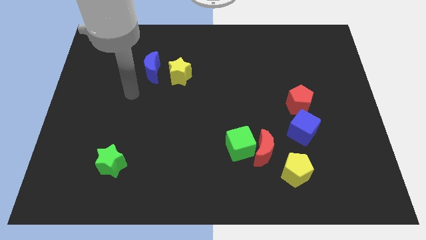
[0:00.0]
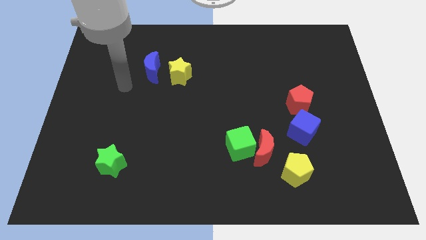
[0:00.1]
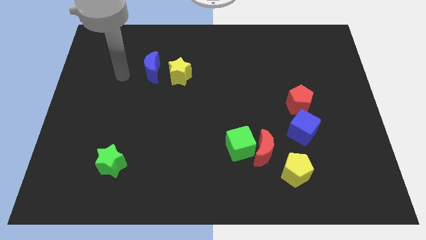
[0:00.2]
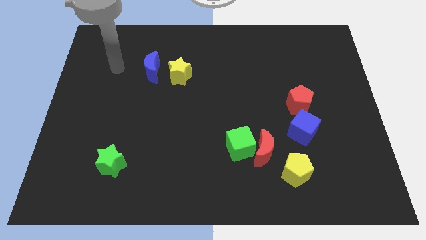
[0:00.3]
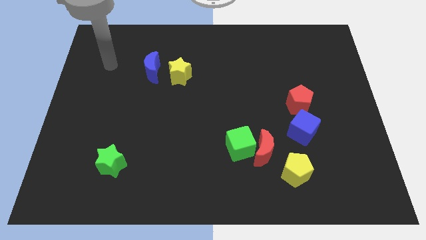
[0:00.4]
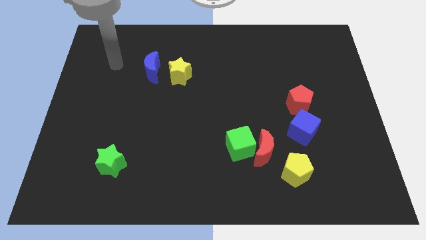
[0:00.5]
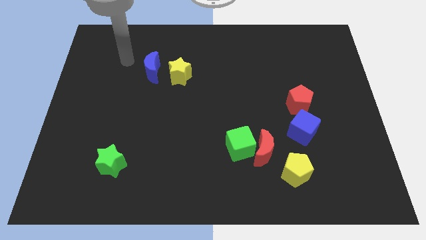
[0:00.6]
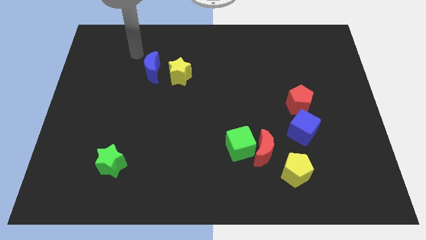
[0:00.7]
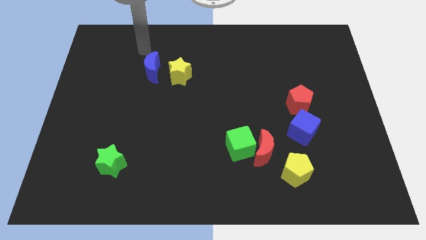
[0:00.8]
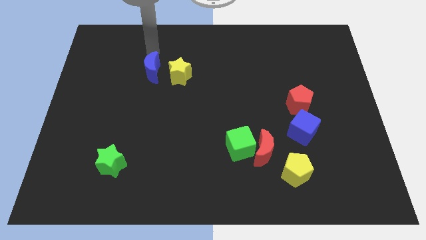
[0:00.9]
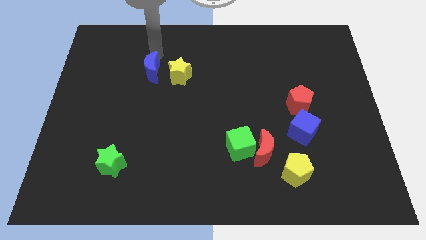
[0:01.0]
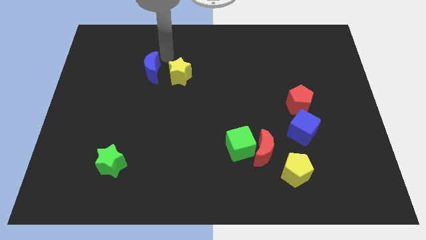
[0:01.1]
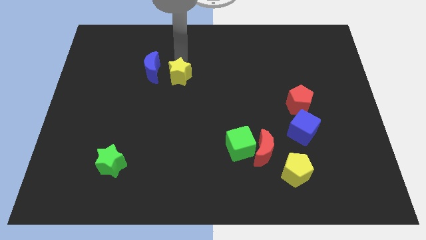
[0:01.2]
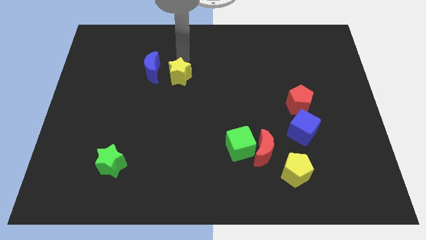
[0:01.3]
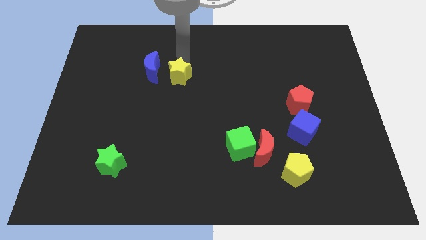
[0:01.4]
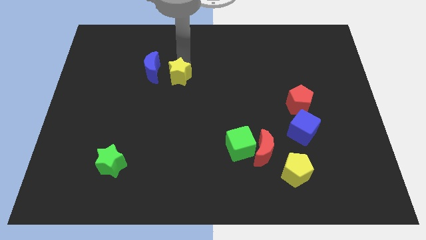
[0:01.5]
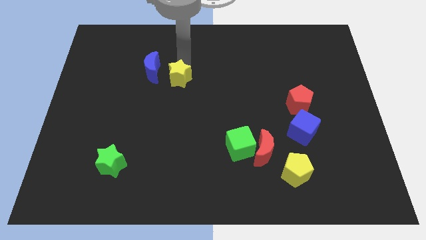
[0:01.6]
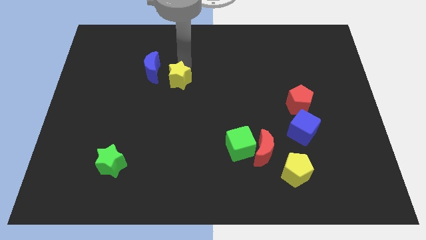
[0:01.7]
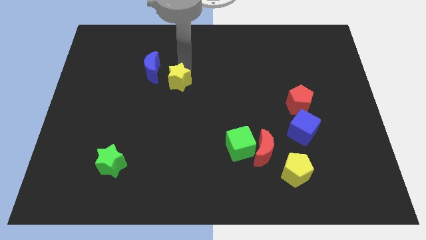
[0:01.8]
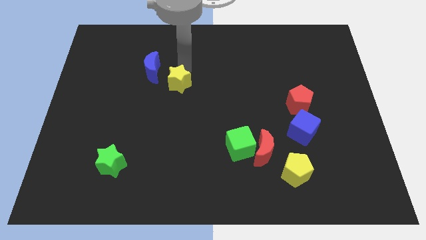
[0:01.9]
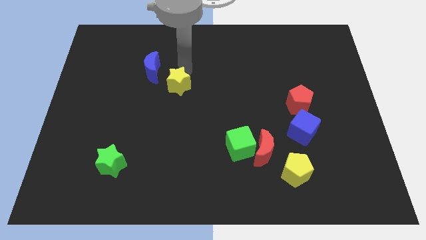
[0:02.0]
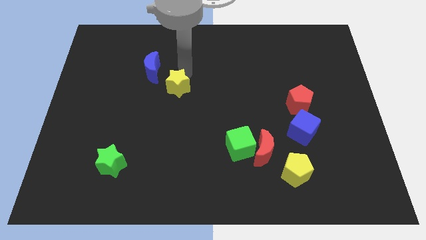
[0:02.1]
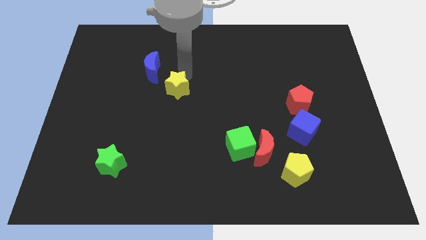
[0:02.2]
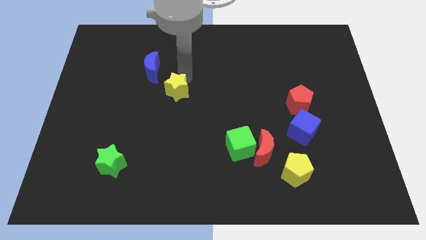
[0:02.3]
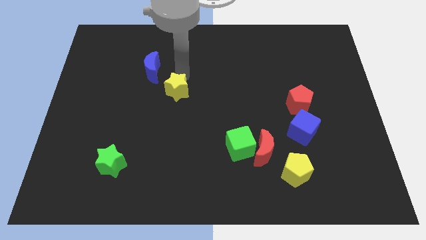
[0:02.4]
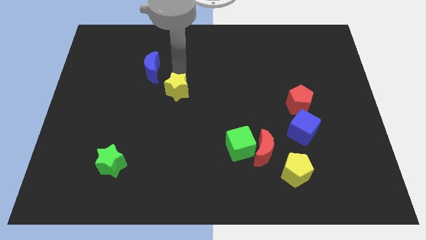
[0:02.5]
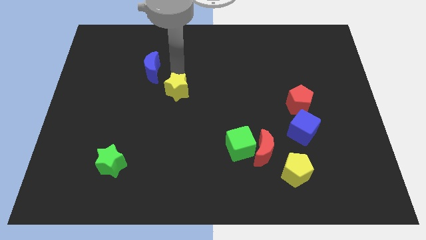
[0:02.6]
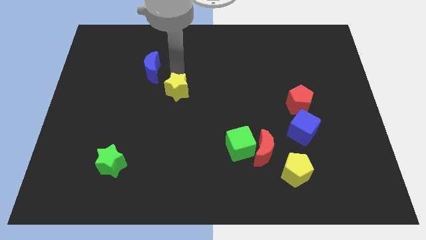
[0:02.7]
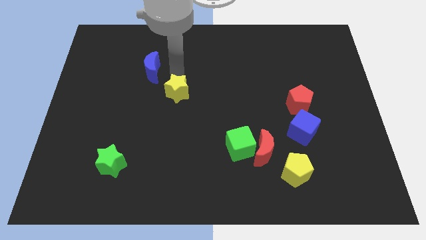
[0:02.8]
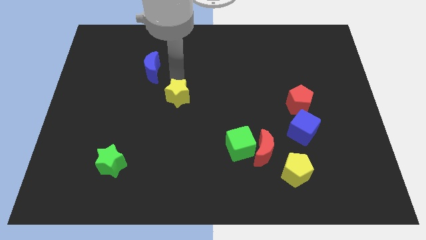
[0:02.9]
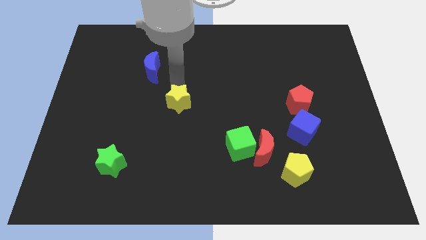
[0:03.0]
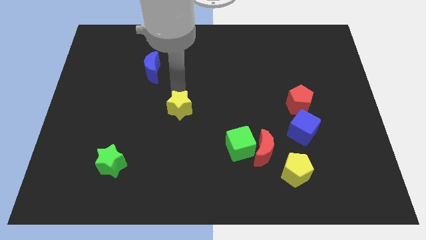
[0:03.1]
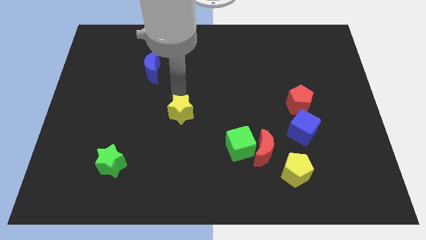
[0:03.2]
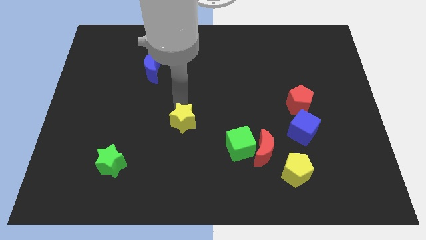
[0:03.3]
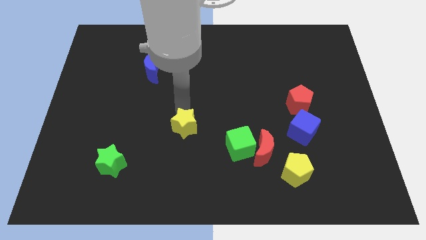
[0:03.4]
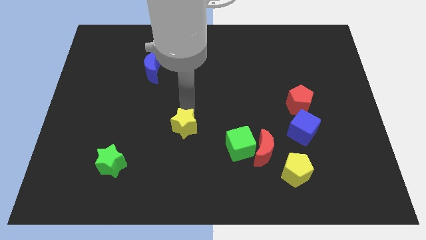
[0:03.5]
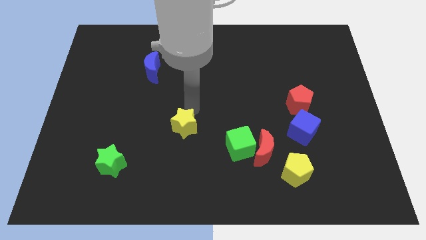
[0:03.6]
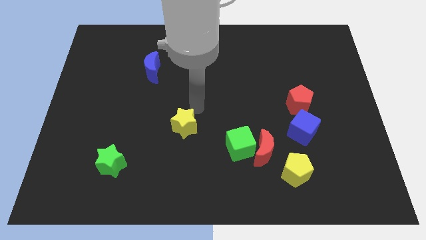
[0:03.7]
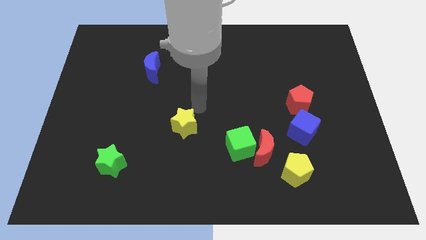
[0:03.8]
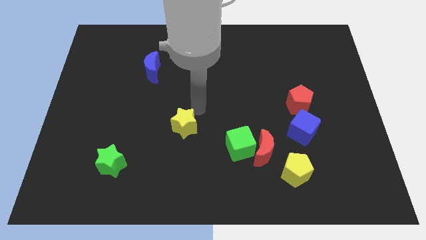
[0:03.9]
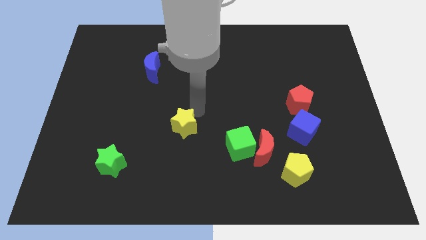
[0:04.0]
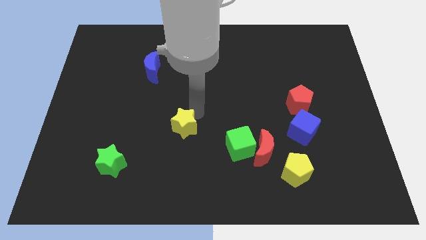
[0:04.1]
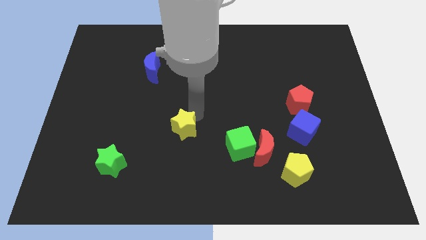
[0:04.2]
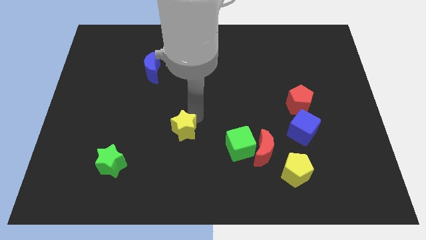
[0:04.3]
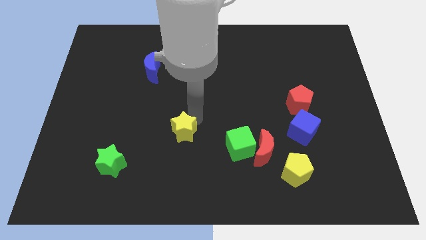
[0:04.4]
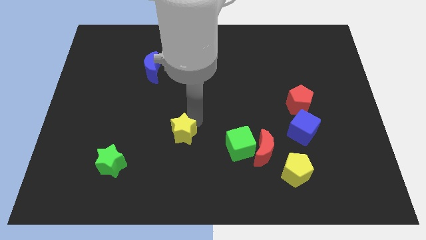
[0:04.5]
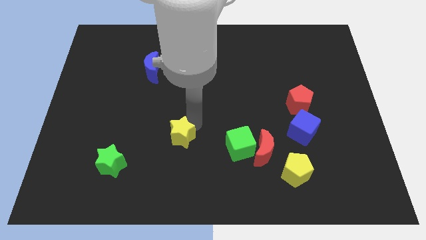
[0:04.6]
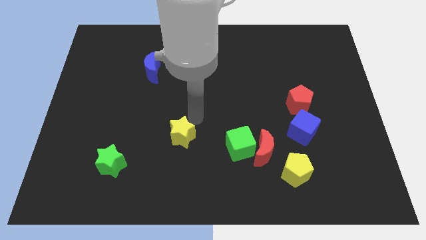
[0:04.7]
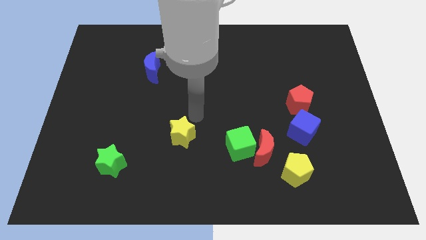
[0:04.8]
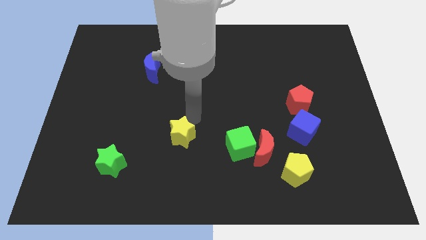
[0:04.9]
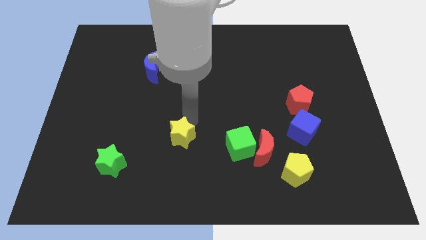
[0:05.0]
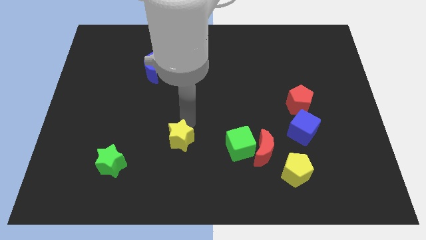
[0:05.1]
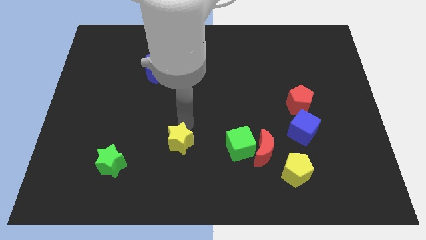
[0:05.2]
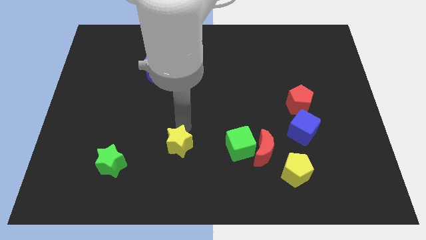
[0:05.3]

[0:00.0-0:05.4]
put the yellow star just right of the green star

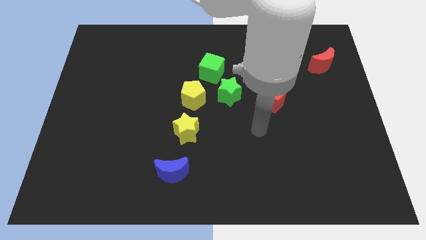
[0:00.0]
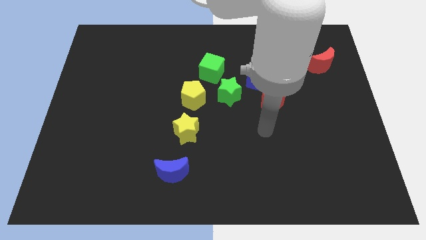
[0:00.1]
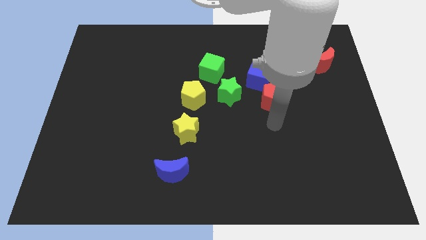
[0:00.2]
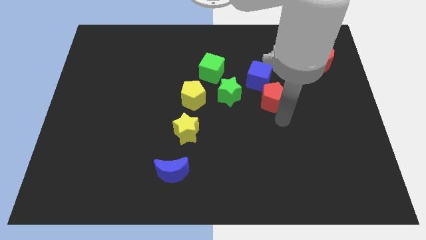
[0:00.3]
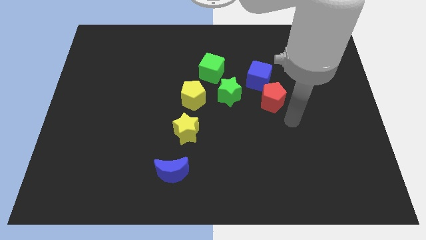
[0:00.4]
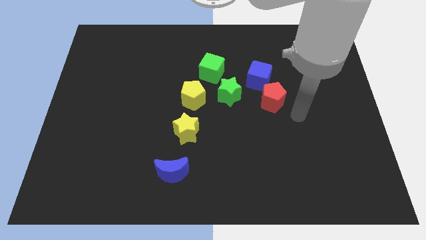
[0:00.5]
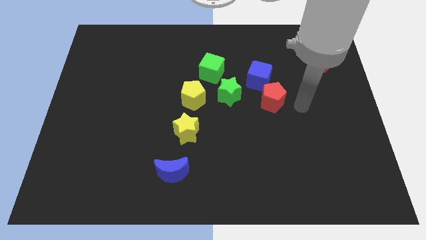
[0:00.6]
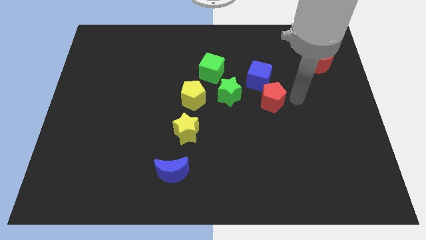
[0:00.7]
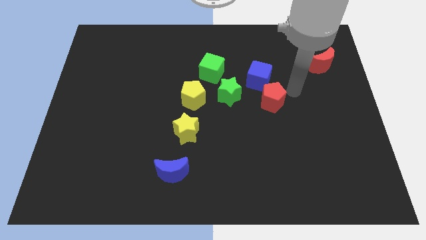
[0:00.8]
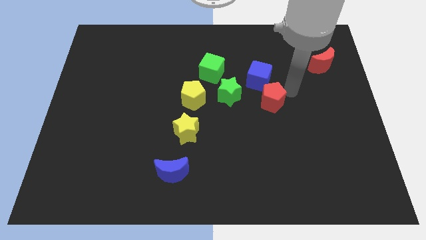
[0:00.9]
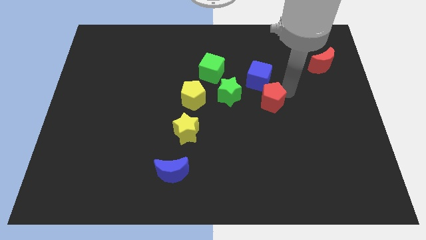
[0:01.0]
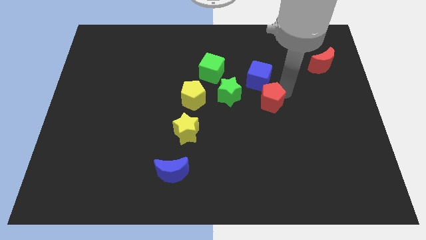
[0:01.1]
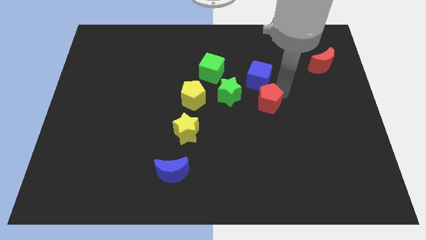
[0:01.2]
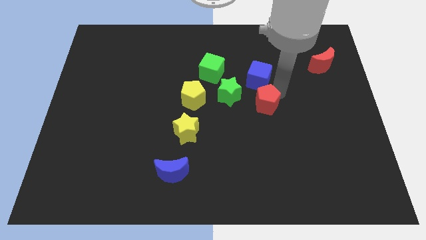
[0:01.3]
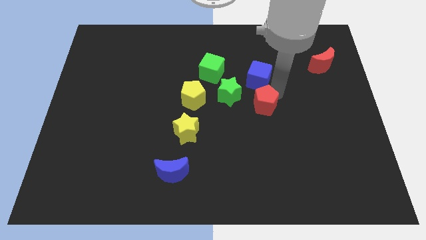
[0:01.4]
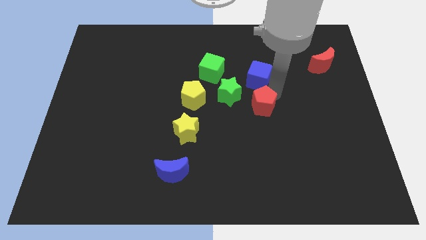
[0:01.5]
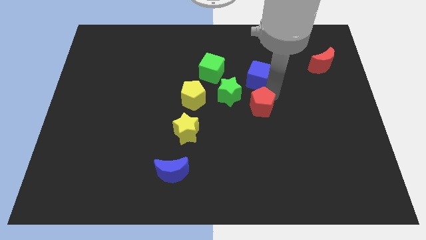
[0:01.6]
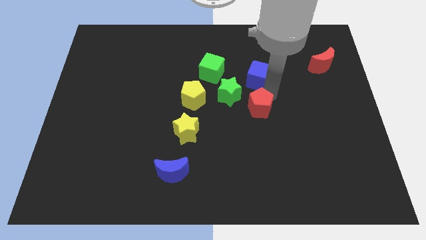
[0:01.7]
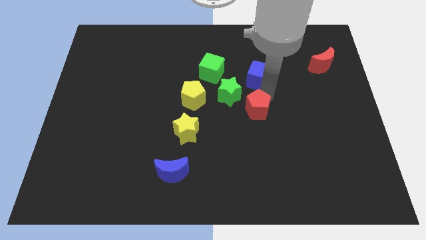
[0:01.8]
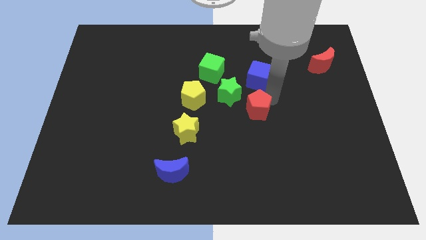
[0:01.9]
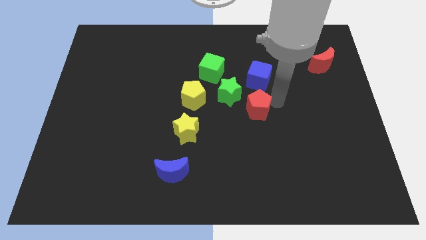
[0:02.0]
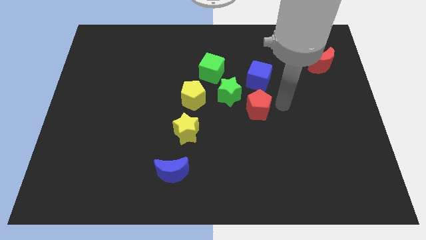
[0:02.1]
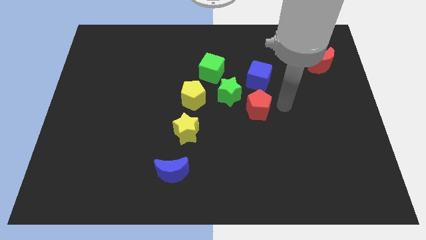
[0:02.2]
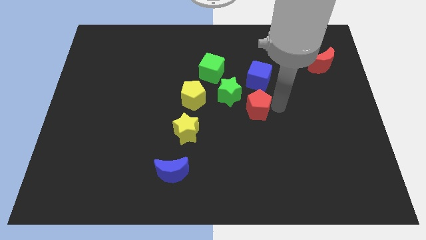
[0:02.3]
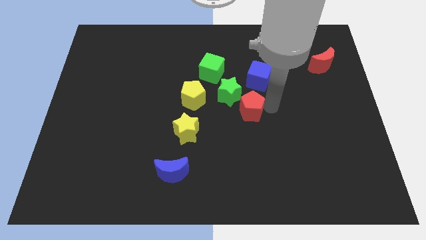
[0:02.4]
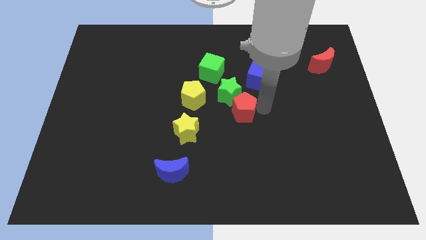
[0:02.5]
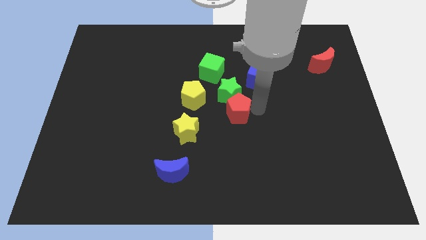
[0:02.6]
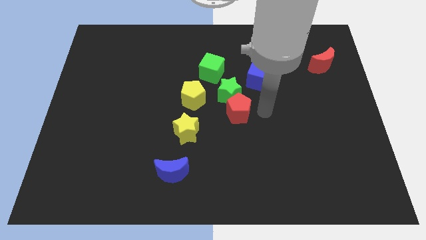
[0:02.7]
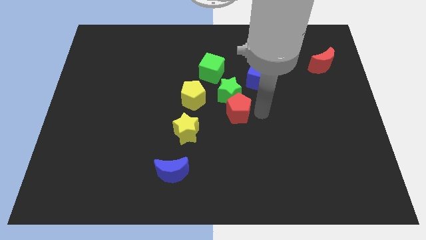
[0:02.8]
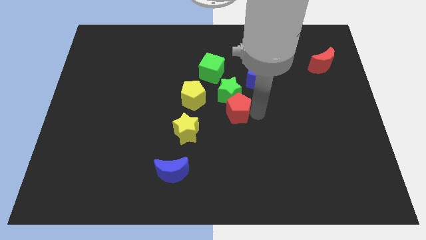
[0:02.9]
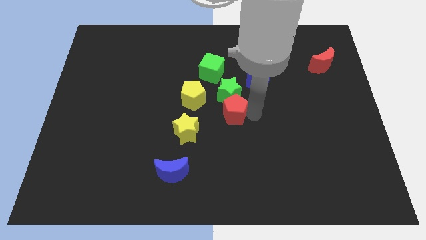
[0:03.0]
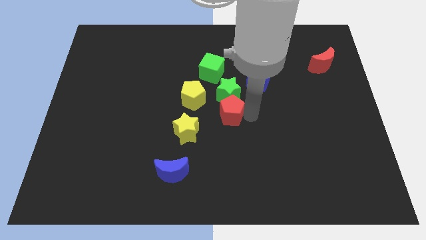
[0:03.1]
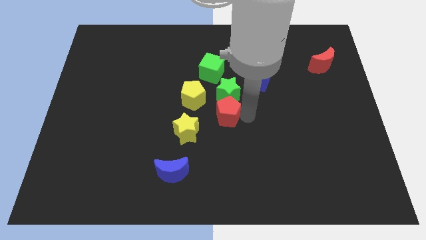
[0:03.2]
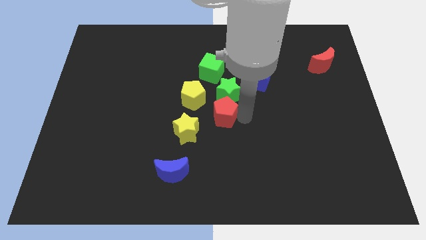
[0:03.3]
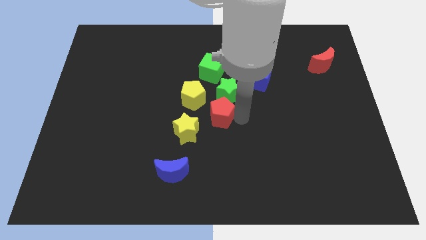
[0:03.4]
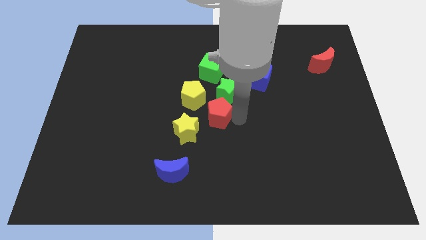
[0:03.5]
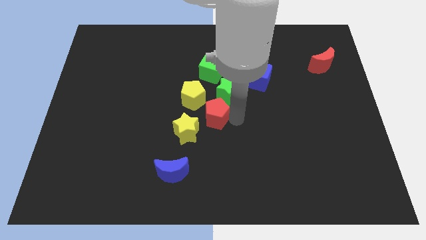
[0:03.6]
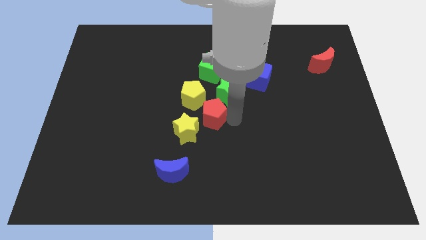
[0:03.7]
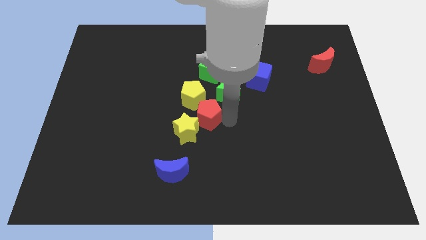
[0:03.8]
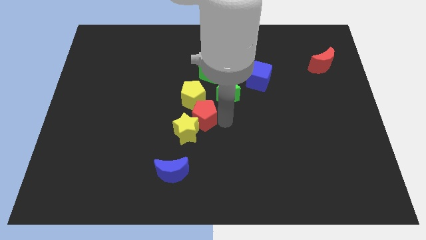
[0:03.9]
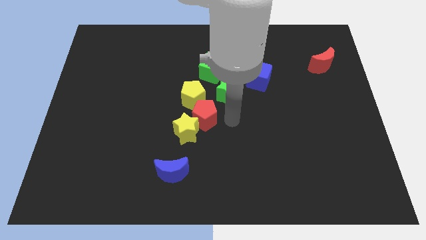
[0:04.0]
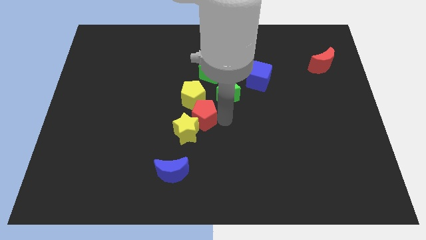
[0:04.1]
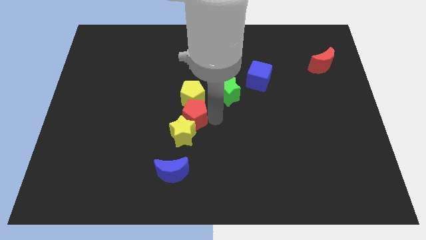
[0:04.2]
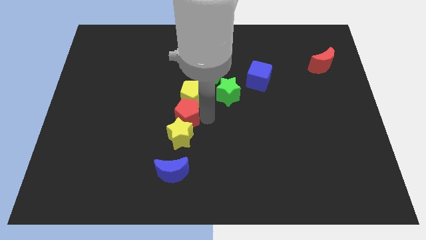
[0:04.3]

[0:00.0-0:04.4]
push the red pentagon to the top left side of the yellow star
